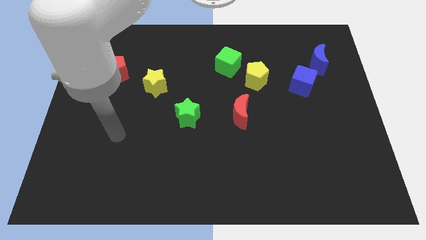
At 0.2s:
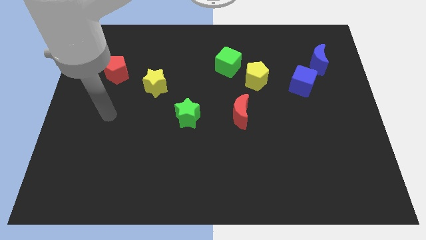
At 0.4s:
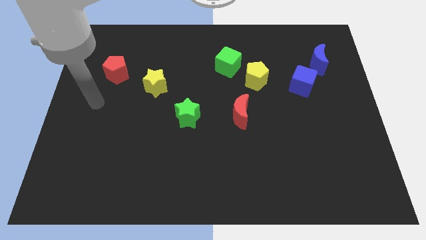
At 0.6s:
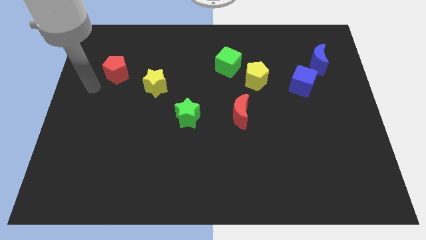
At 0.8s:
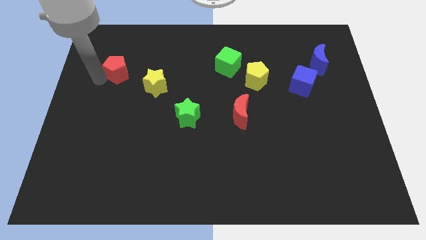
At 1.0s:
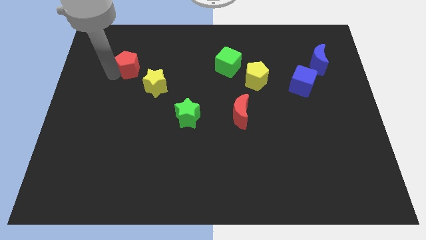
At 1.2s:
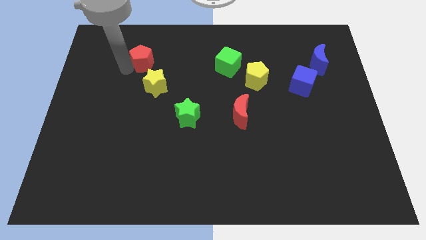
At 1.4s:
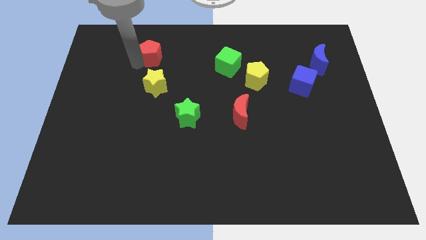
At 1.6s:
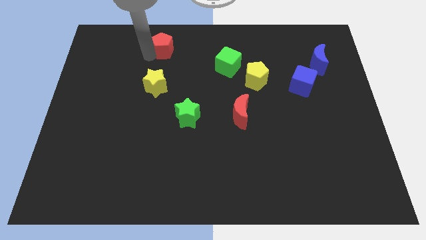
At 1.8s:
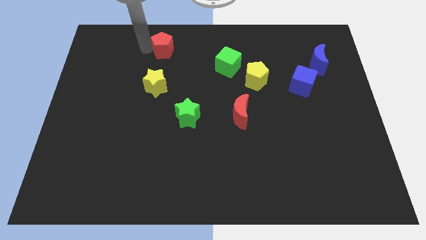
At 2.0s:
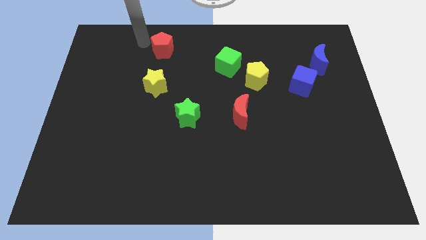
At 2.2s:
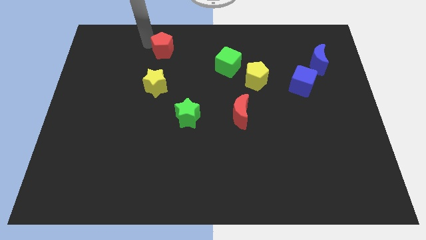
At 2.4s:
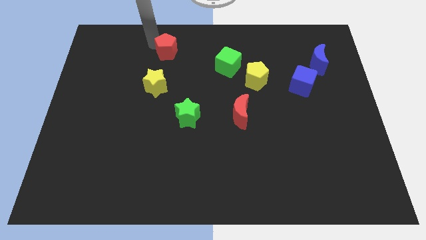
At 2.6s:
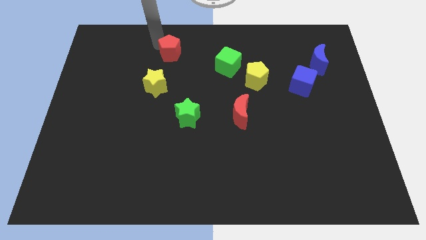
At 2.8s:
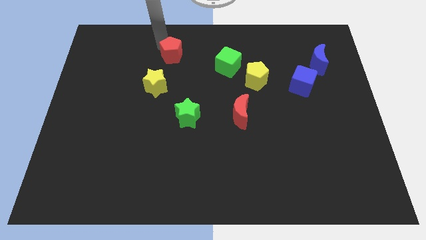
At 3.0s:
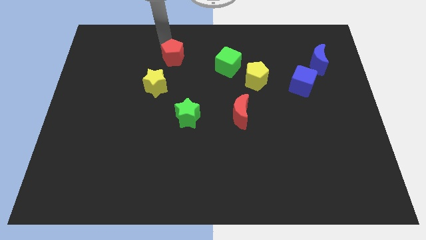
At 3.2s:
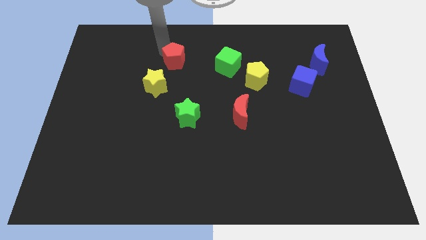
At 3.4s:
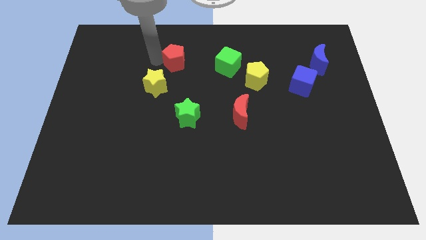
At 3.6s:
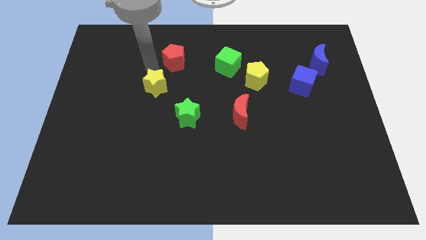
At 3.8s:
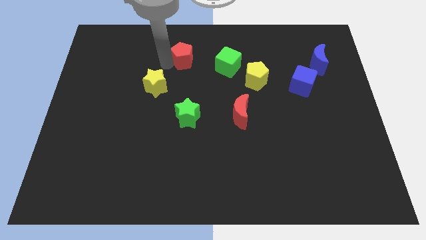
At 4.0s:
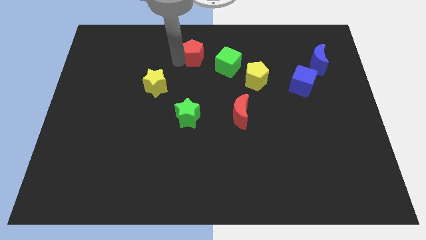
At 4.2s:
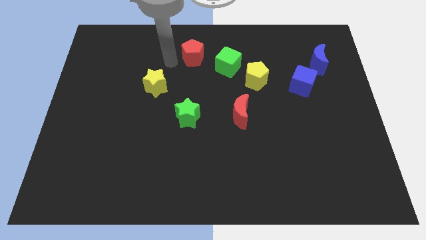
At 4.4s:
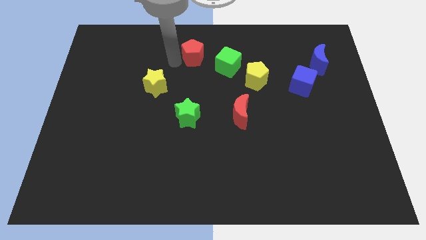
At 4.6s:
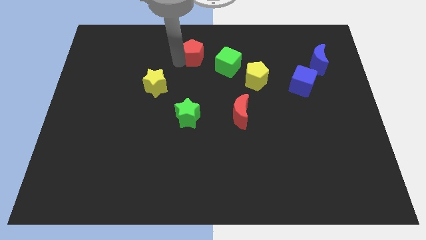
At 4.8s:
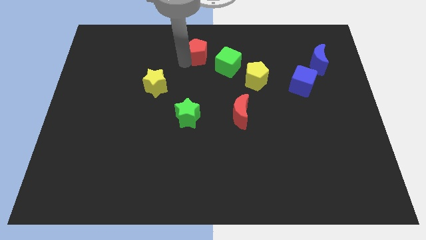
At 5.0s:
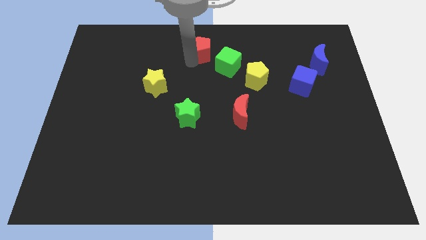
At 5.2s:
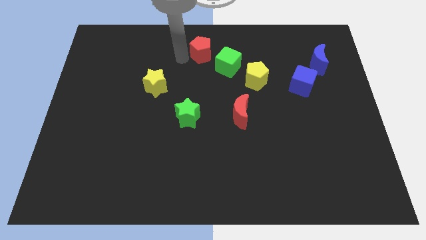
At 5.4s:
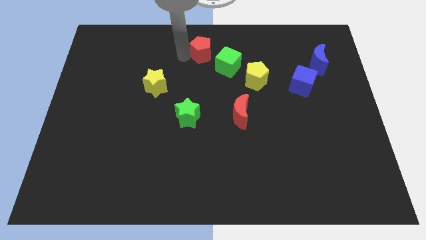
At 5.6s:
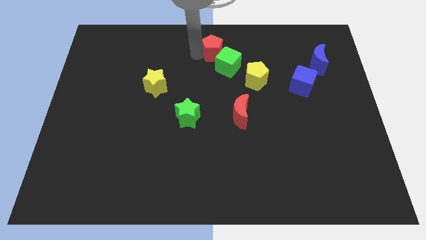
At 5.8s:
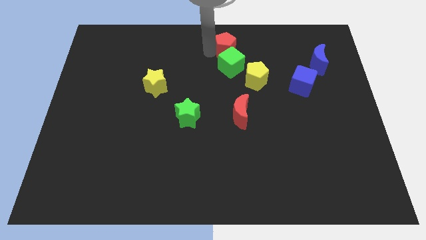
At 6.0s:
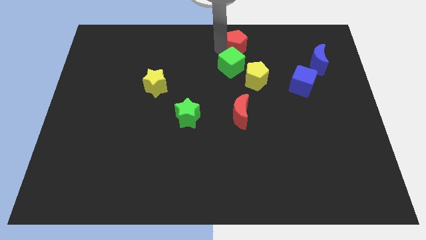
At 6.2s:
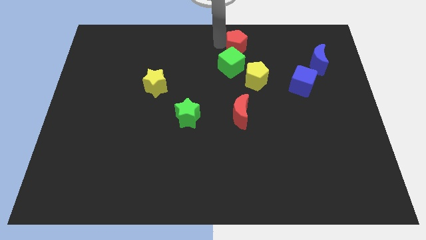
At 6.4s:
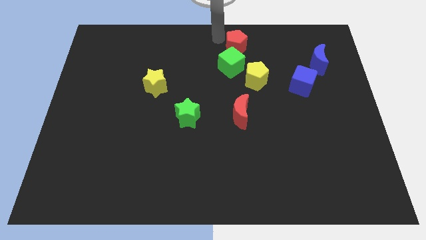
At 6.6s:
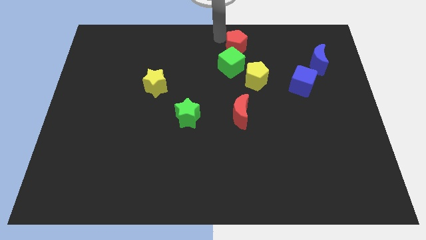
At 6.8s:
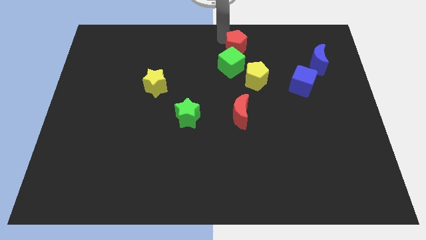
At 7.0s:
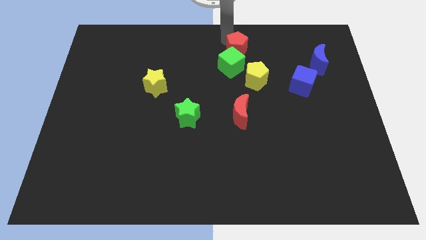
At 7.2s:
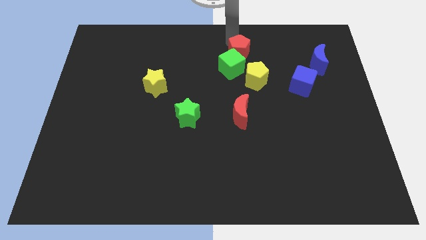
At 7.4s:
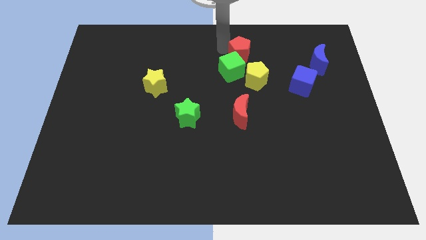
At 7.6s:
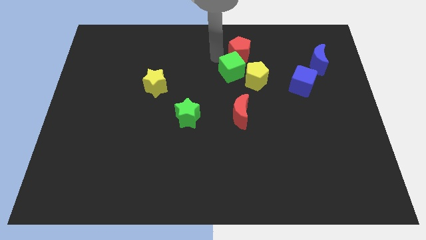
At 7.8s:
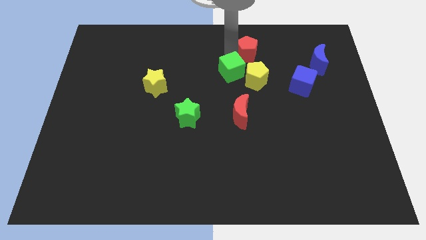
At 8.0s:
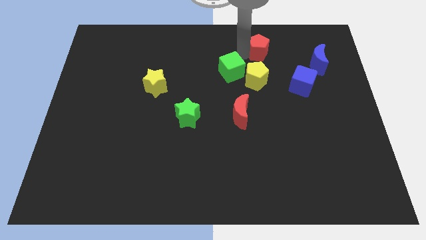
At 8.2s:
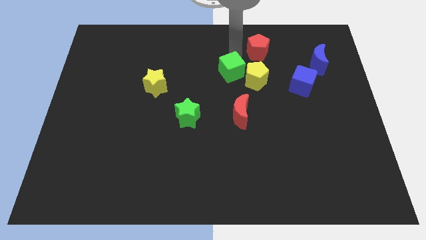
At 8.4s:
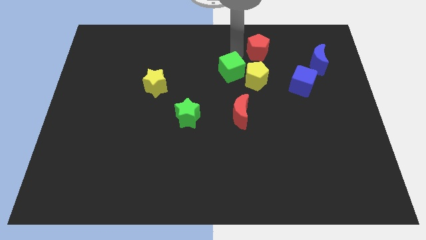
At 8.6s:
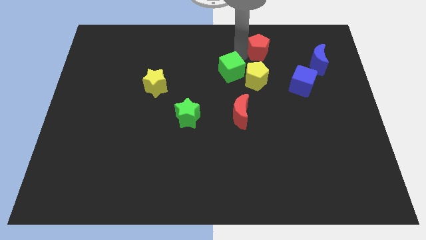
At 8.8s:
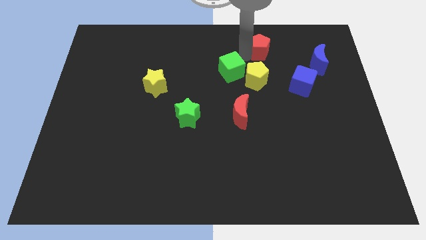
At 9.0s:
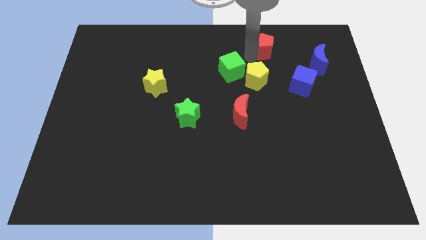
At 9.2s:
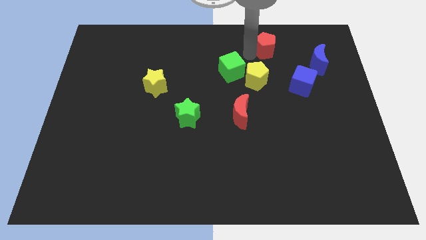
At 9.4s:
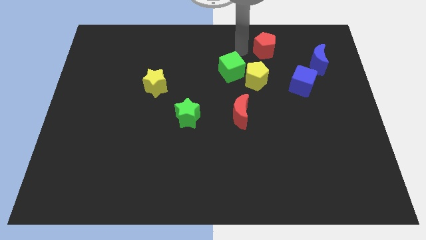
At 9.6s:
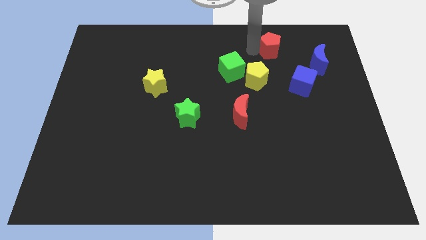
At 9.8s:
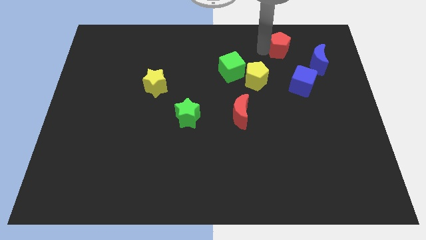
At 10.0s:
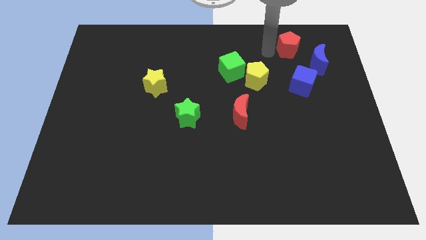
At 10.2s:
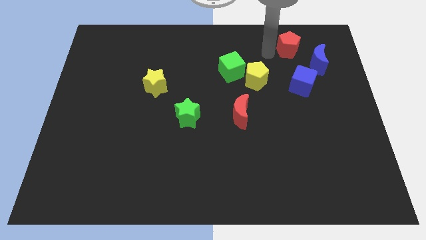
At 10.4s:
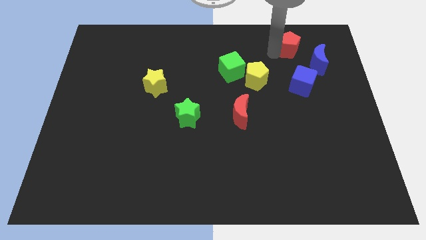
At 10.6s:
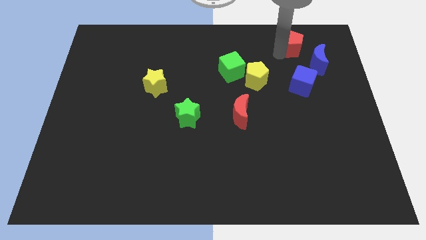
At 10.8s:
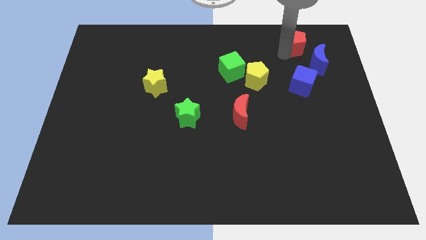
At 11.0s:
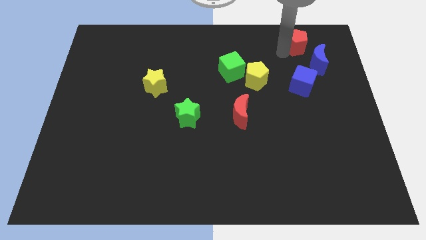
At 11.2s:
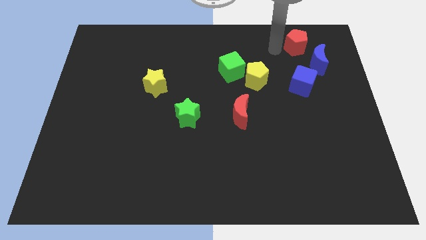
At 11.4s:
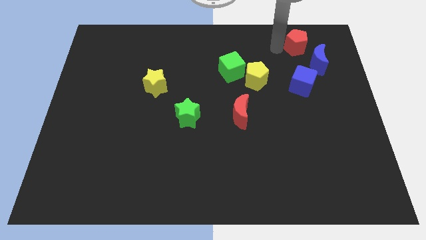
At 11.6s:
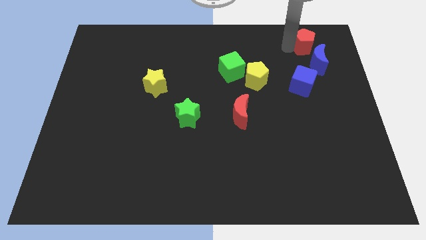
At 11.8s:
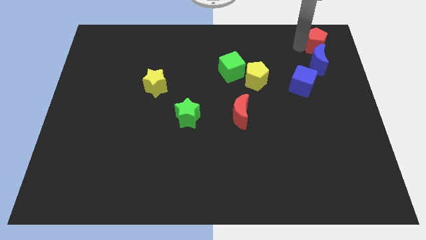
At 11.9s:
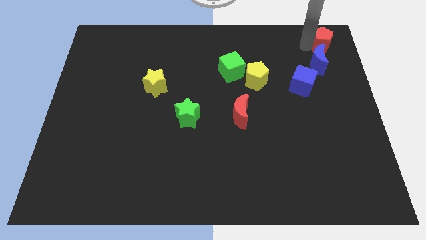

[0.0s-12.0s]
push the red pentagon to the top right corner
